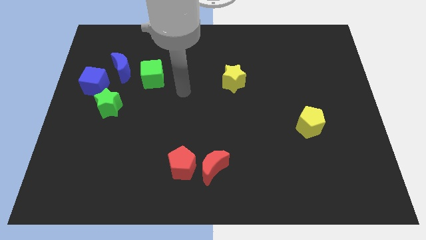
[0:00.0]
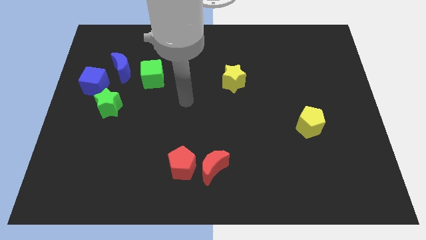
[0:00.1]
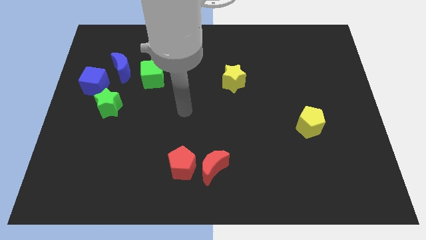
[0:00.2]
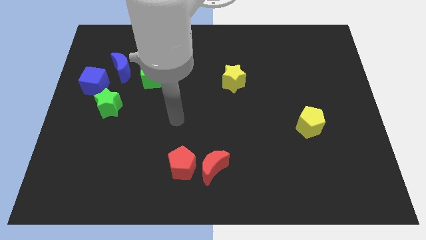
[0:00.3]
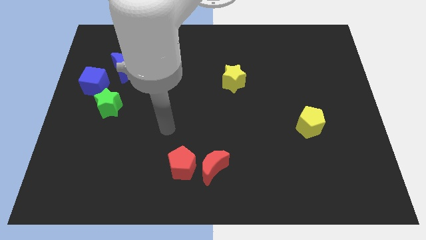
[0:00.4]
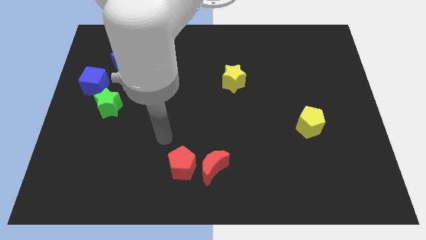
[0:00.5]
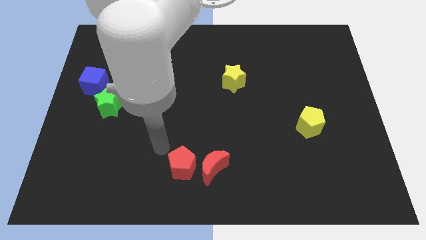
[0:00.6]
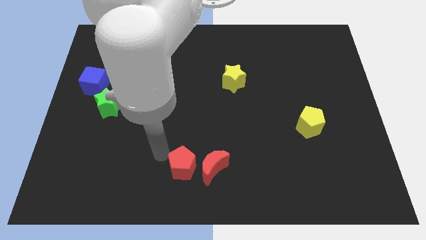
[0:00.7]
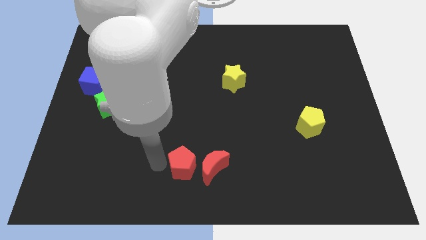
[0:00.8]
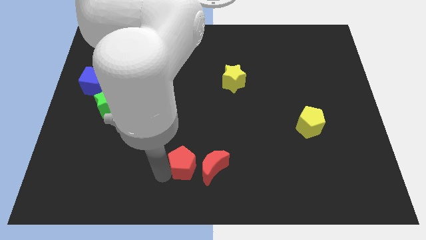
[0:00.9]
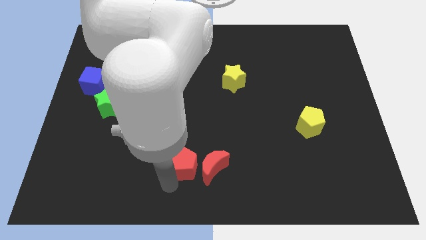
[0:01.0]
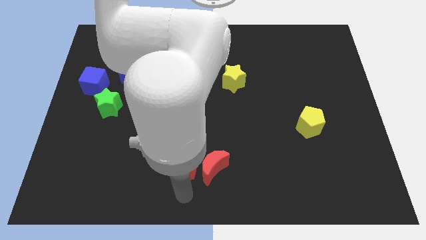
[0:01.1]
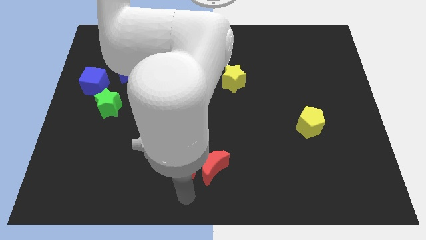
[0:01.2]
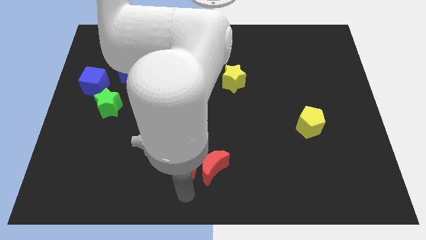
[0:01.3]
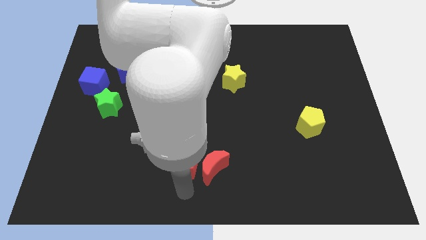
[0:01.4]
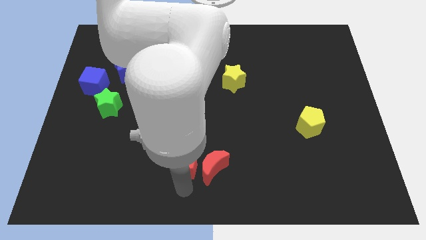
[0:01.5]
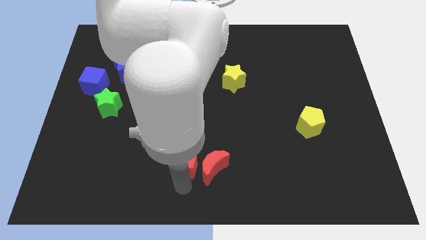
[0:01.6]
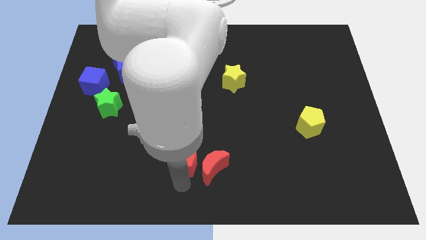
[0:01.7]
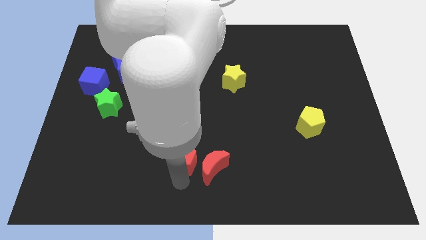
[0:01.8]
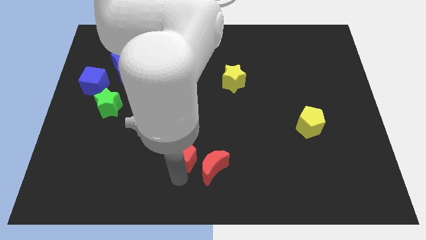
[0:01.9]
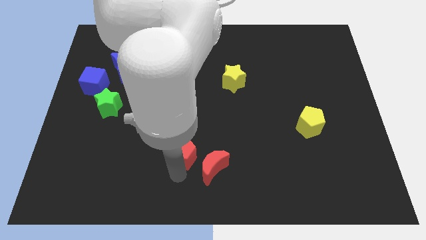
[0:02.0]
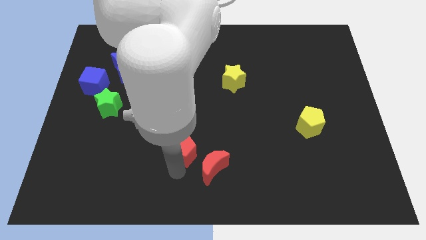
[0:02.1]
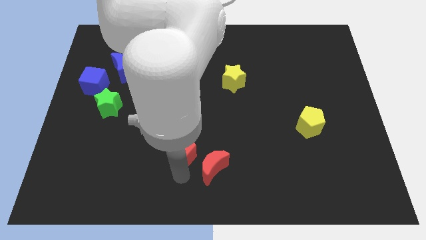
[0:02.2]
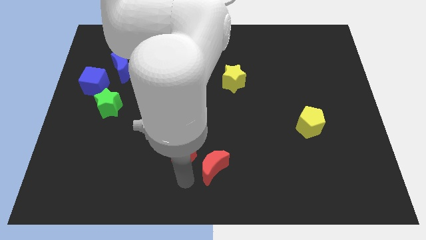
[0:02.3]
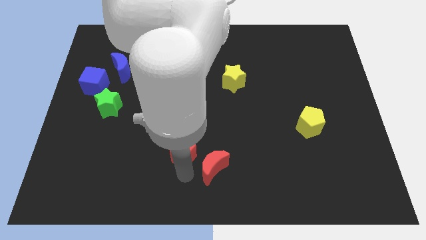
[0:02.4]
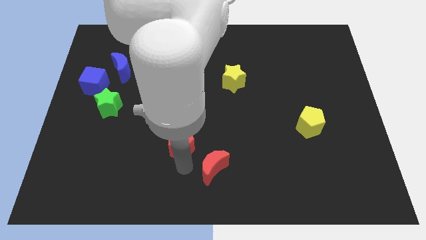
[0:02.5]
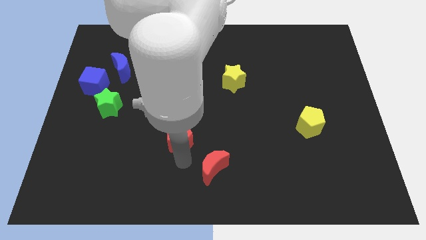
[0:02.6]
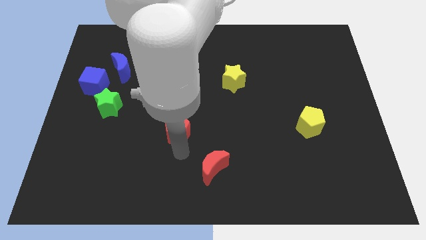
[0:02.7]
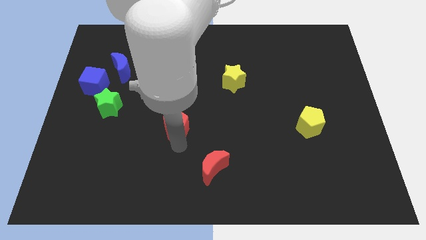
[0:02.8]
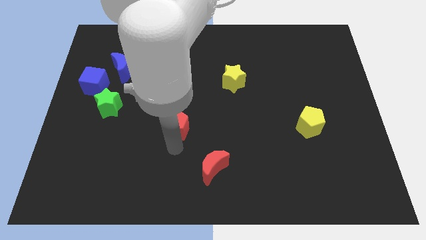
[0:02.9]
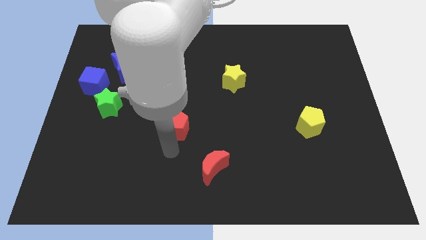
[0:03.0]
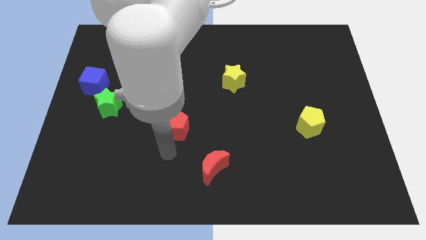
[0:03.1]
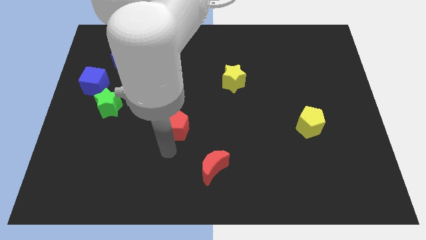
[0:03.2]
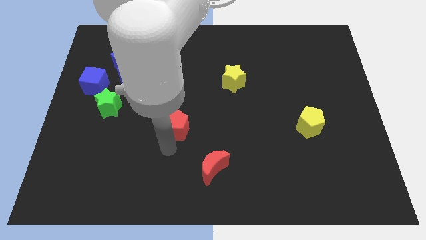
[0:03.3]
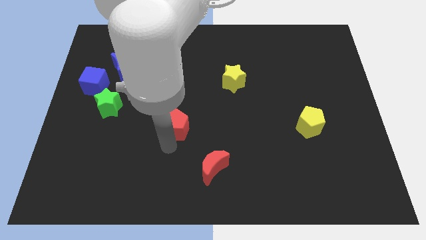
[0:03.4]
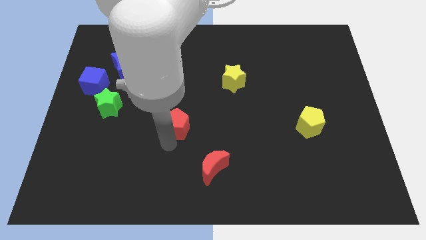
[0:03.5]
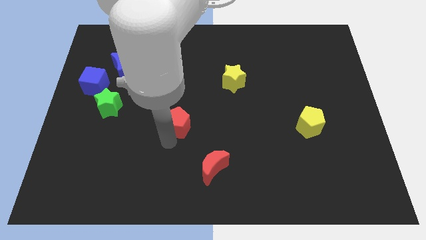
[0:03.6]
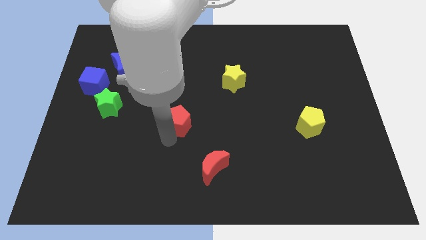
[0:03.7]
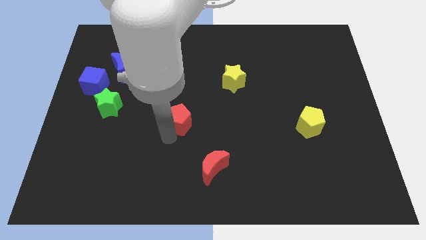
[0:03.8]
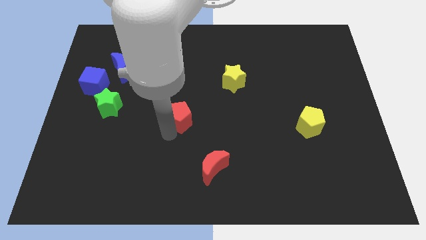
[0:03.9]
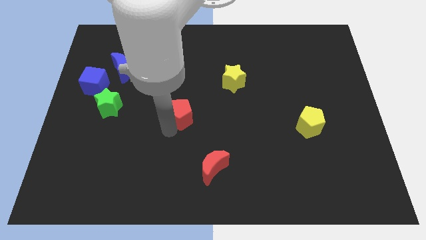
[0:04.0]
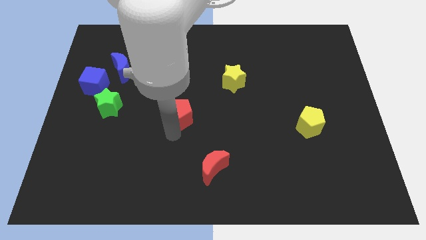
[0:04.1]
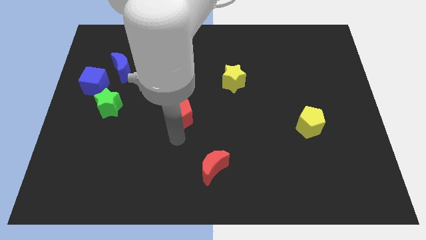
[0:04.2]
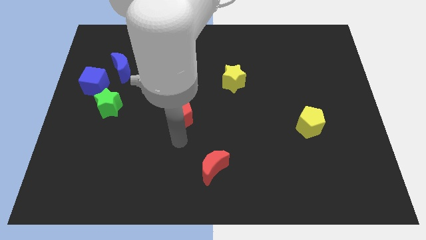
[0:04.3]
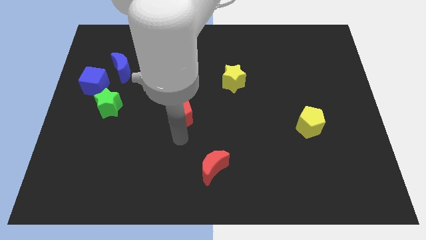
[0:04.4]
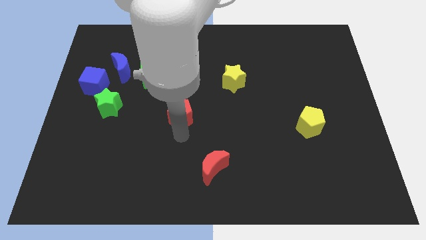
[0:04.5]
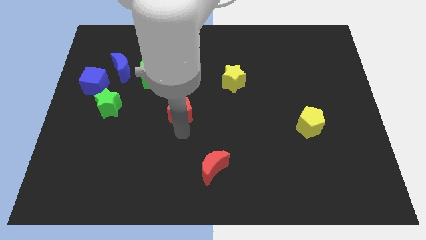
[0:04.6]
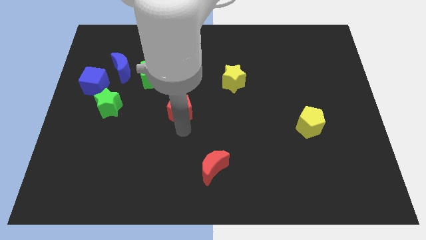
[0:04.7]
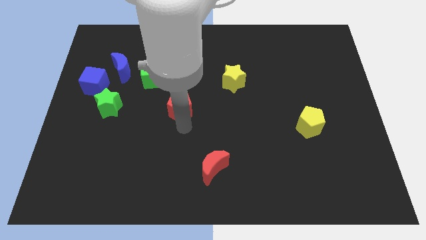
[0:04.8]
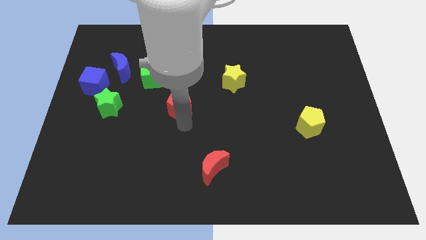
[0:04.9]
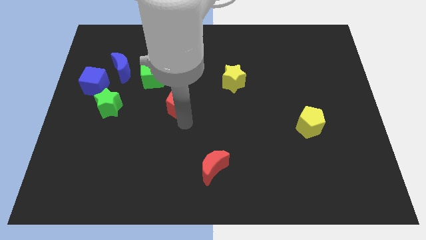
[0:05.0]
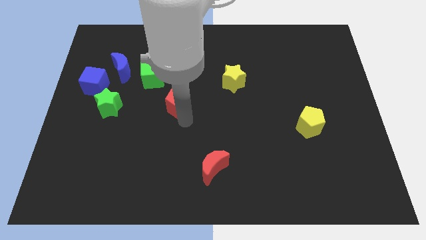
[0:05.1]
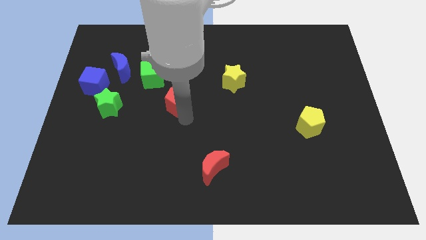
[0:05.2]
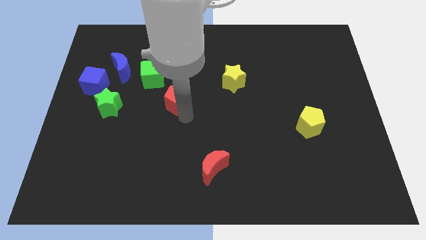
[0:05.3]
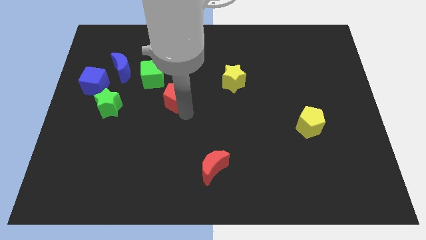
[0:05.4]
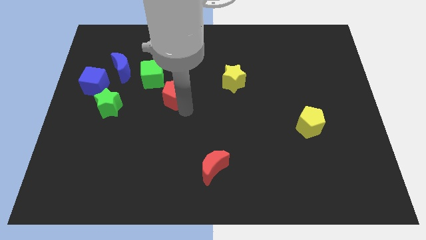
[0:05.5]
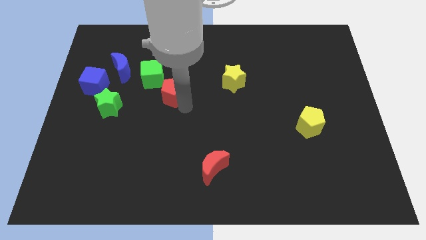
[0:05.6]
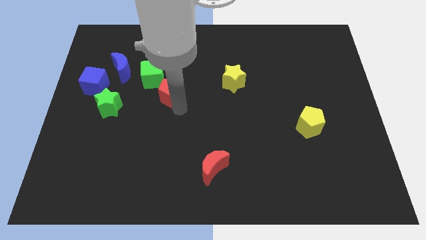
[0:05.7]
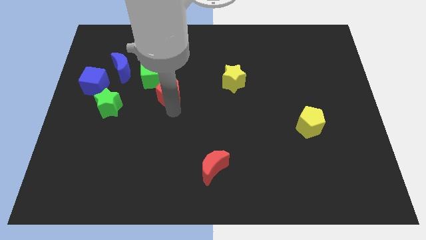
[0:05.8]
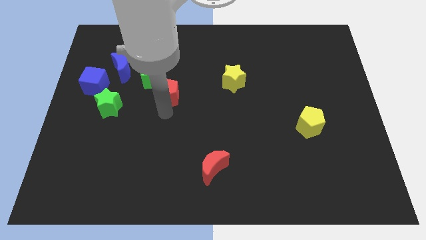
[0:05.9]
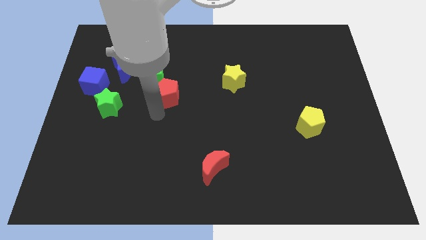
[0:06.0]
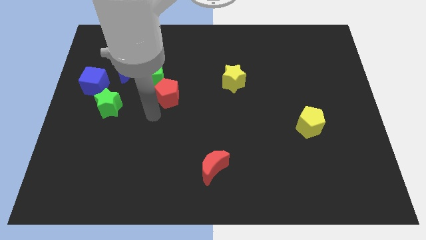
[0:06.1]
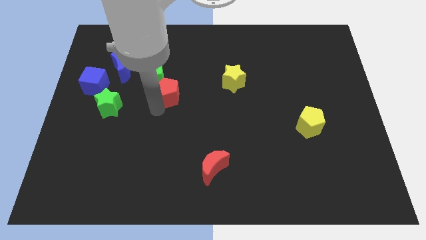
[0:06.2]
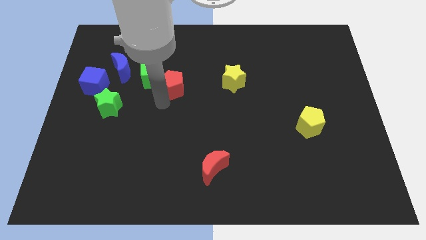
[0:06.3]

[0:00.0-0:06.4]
slide the red pentagon up

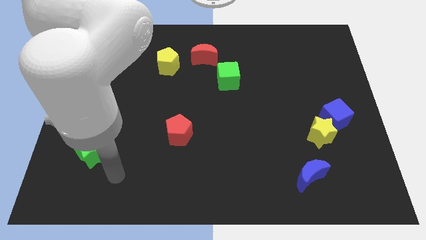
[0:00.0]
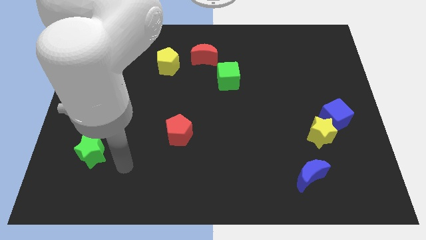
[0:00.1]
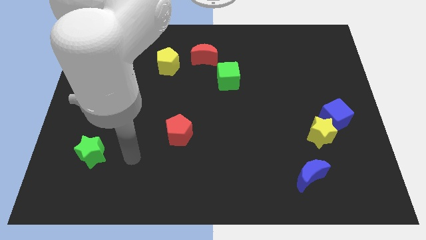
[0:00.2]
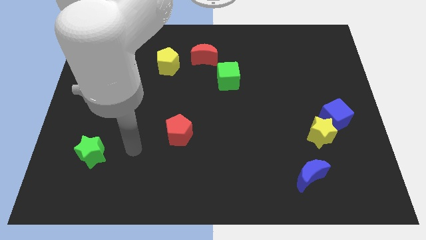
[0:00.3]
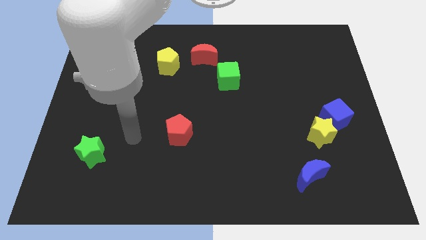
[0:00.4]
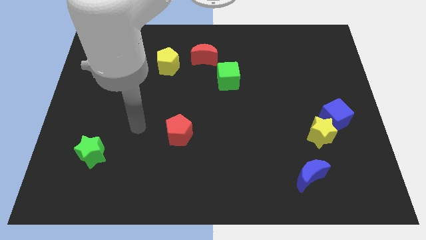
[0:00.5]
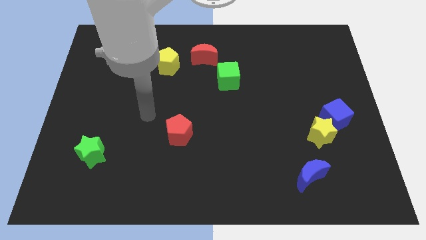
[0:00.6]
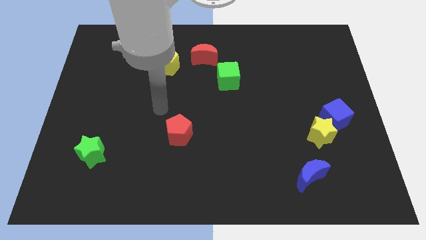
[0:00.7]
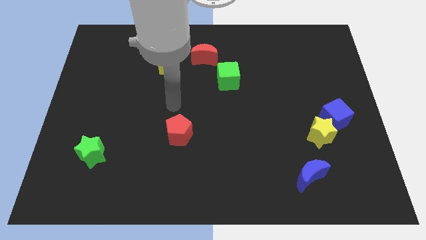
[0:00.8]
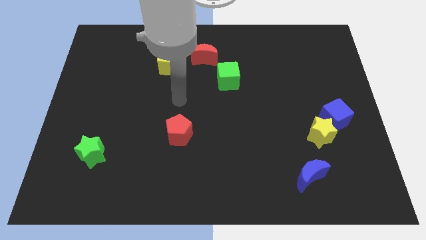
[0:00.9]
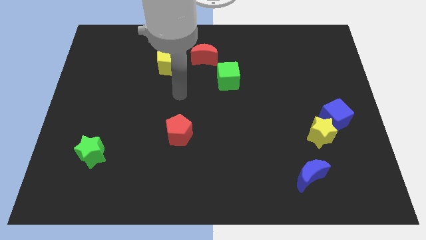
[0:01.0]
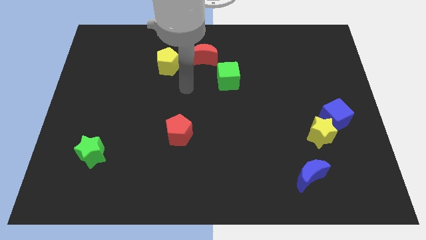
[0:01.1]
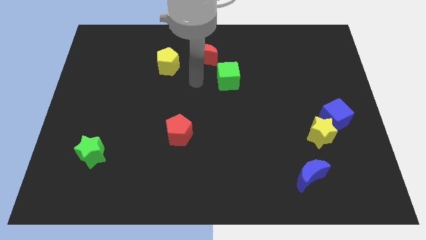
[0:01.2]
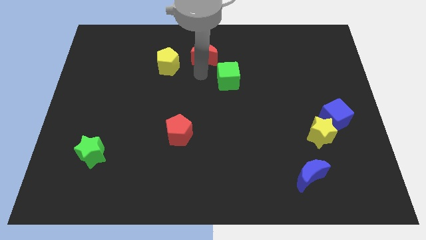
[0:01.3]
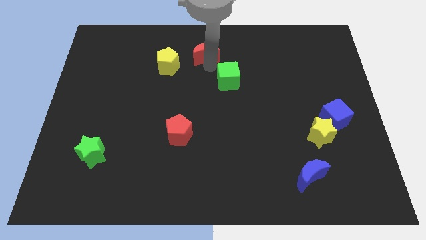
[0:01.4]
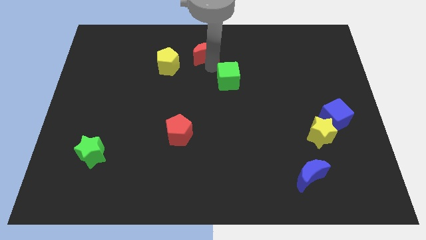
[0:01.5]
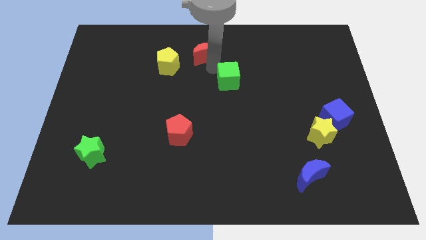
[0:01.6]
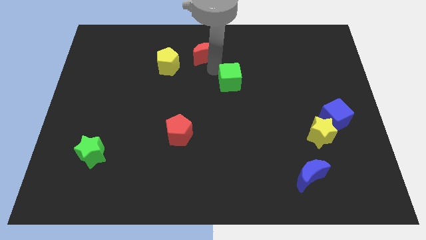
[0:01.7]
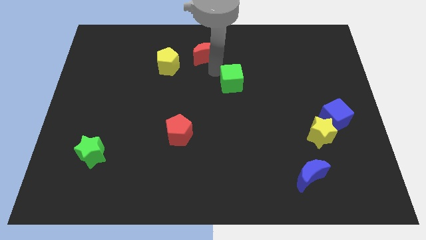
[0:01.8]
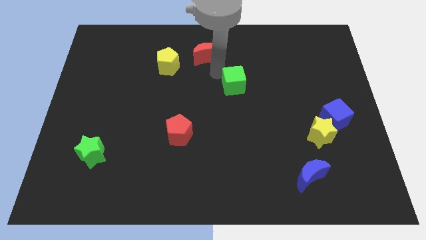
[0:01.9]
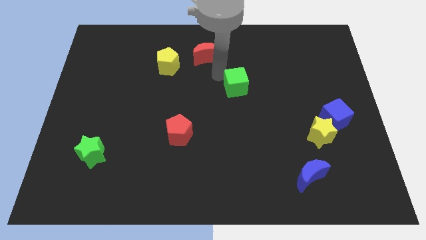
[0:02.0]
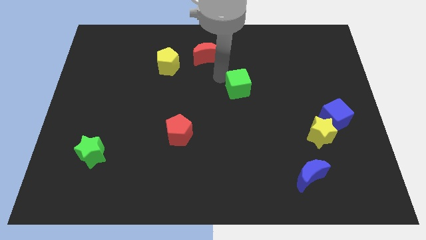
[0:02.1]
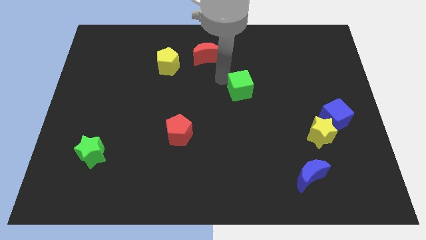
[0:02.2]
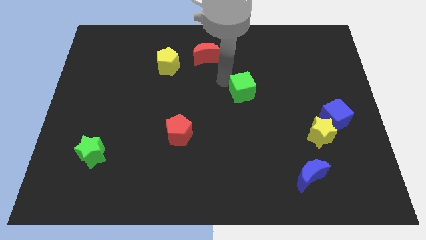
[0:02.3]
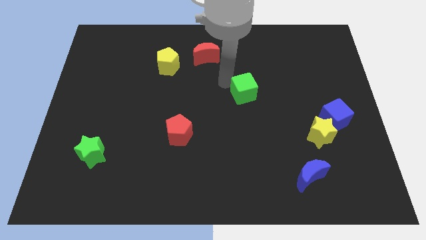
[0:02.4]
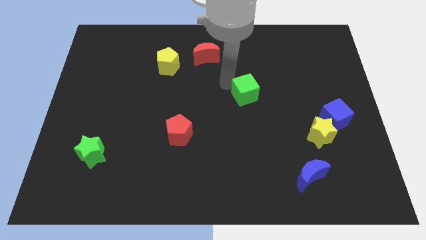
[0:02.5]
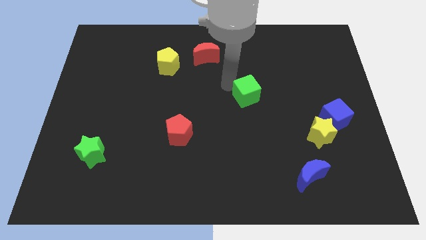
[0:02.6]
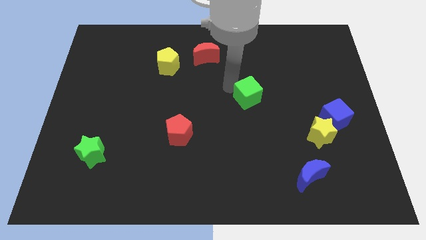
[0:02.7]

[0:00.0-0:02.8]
push the green cube a little down and then to the right
